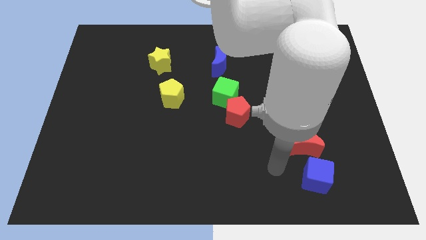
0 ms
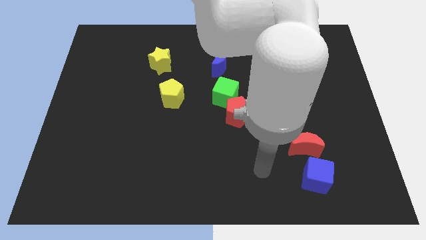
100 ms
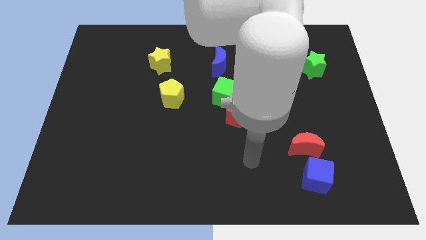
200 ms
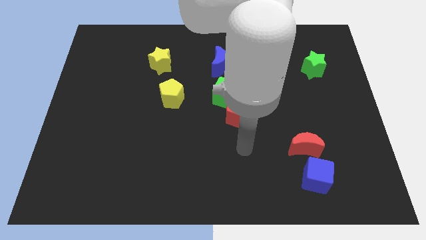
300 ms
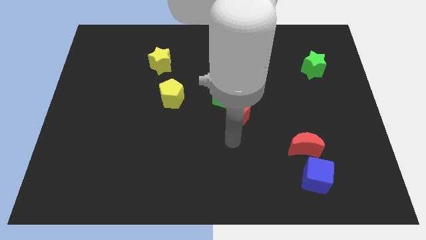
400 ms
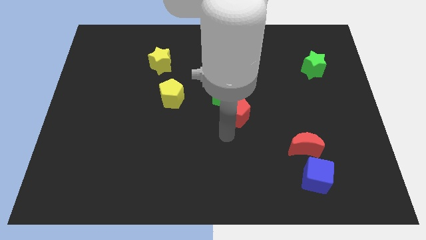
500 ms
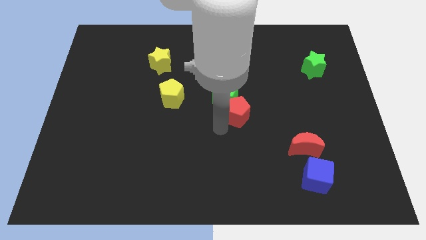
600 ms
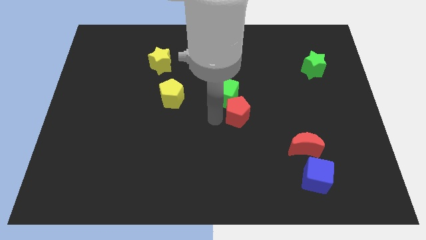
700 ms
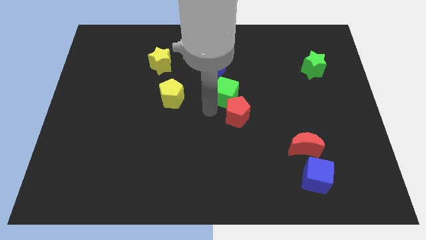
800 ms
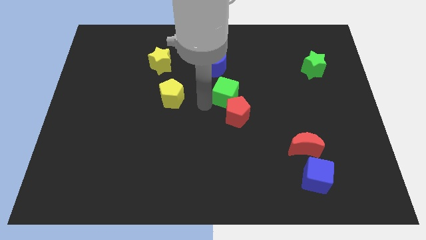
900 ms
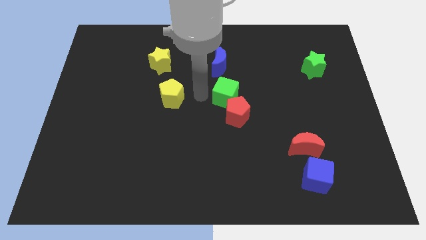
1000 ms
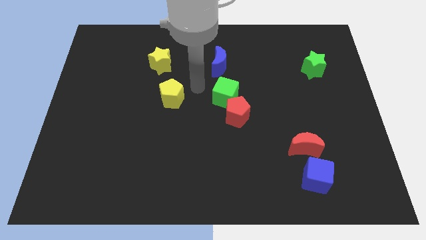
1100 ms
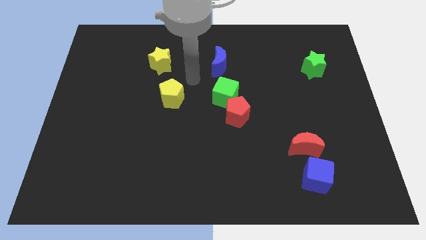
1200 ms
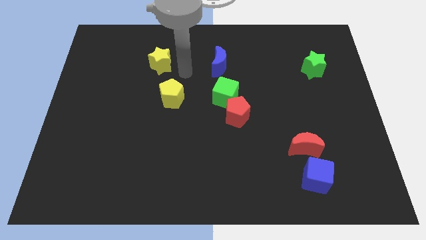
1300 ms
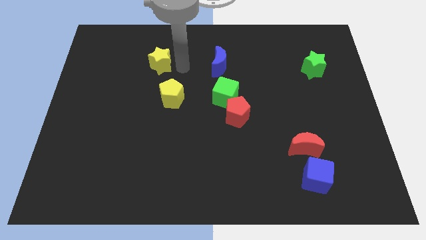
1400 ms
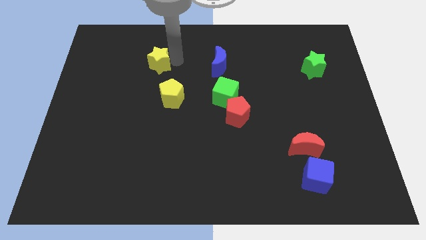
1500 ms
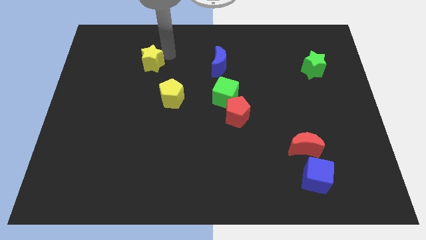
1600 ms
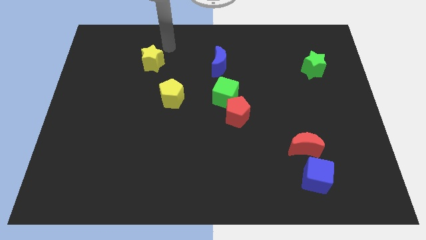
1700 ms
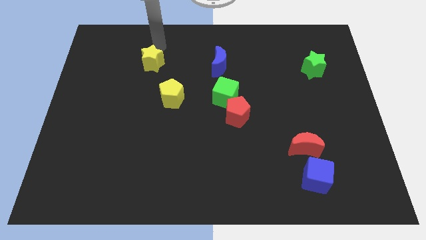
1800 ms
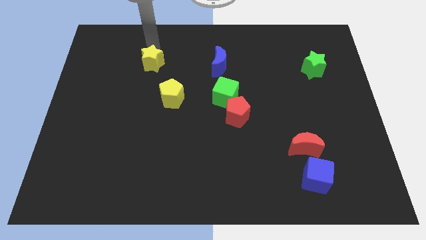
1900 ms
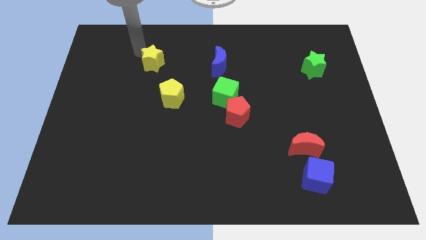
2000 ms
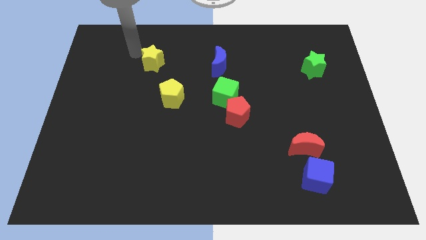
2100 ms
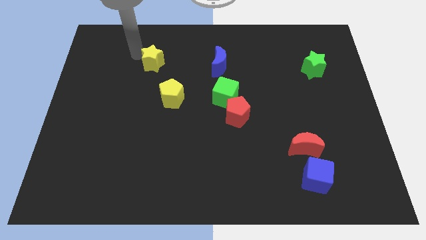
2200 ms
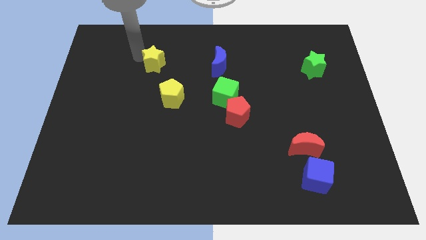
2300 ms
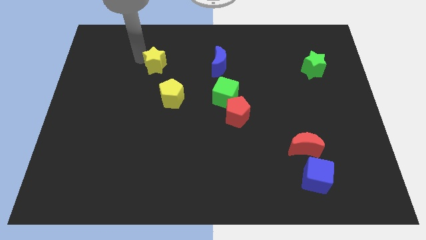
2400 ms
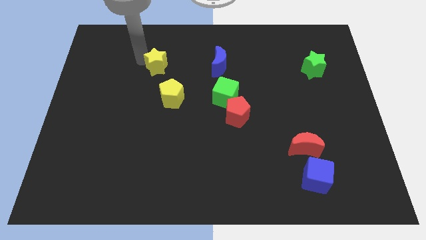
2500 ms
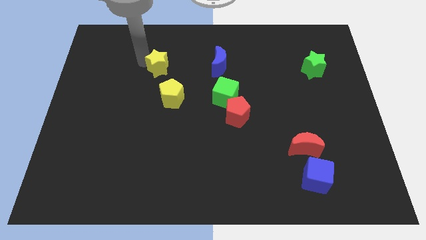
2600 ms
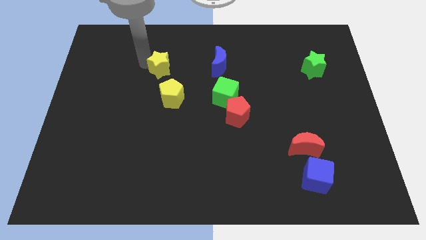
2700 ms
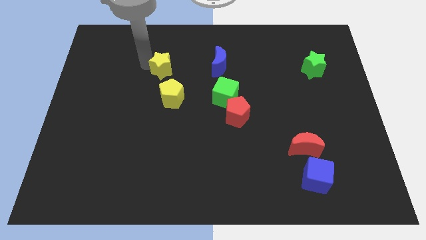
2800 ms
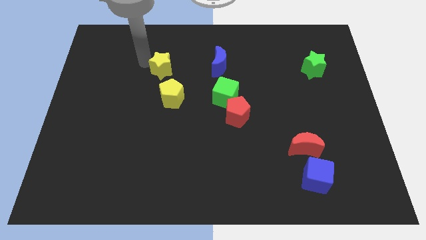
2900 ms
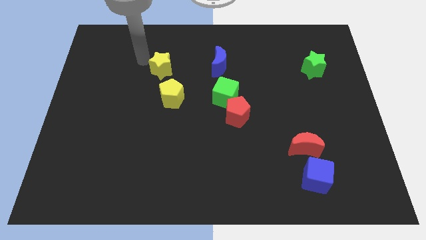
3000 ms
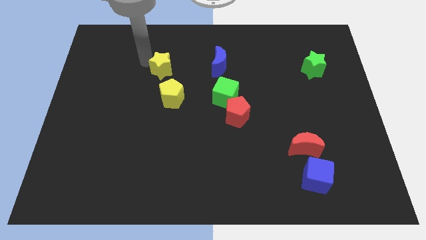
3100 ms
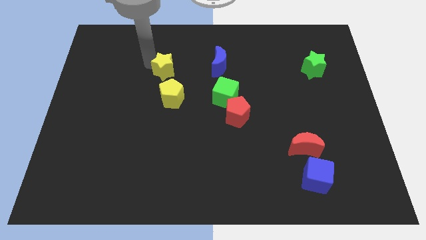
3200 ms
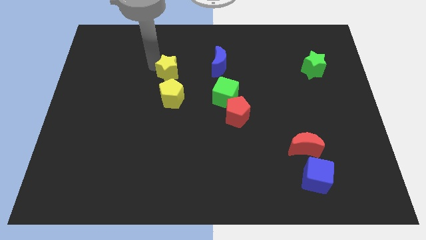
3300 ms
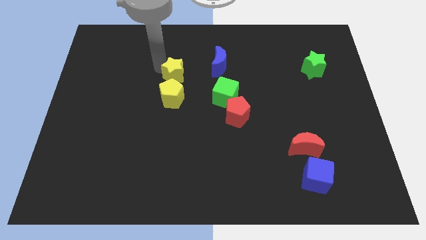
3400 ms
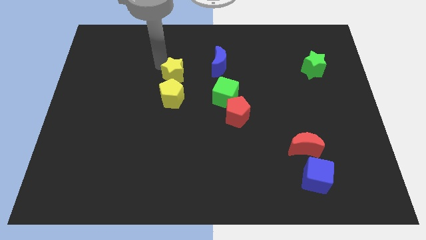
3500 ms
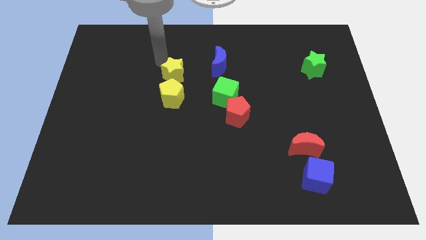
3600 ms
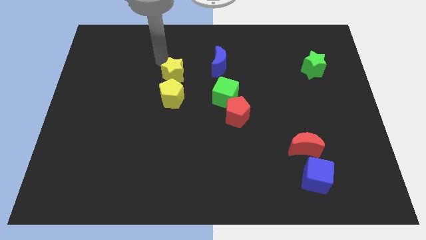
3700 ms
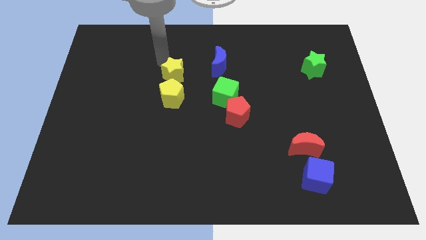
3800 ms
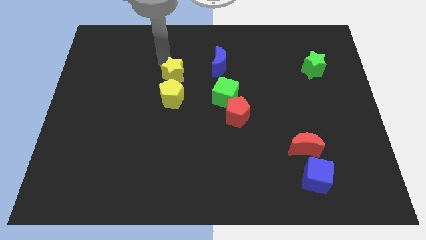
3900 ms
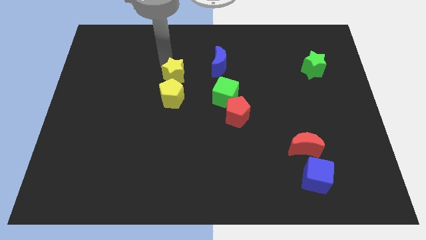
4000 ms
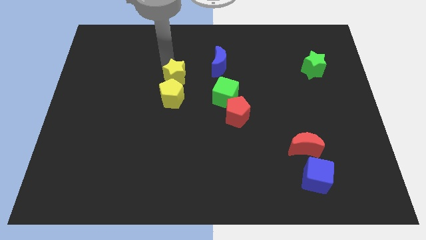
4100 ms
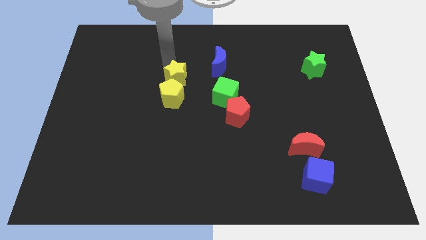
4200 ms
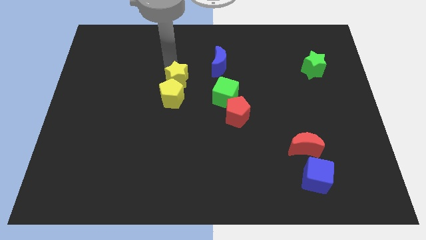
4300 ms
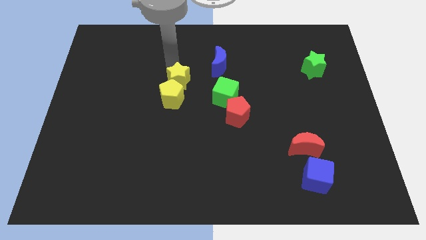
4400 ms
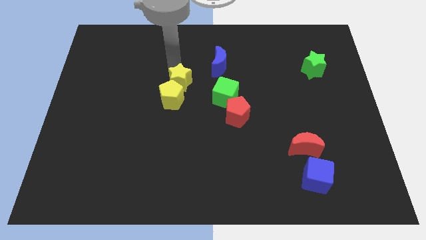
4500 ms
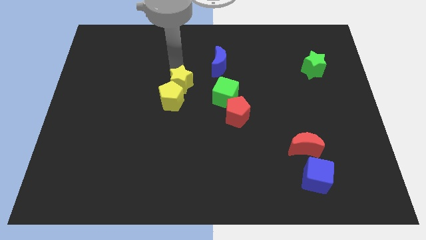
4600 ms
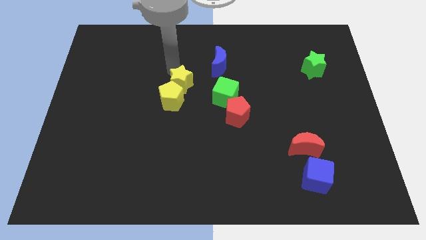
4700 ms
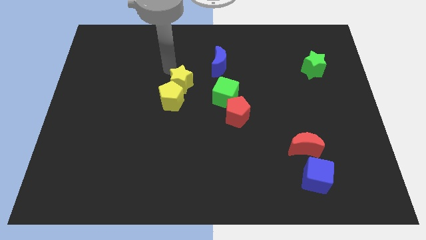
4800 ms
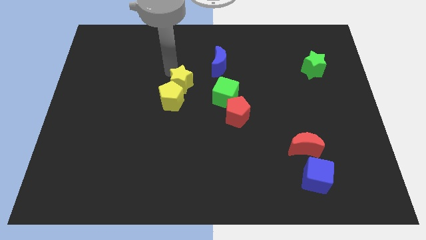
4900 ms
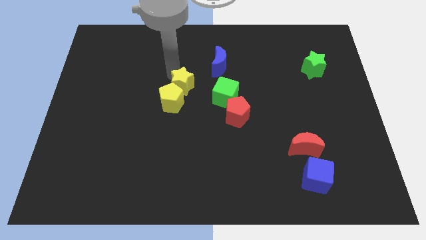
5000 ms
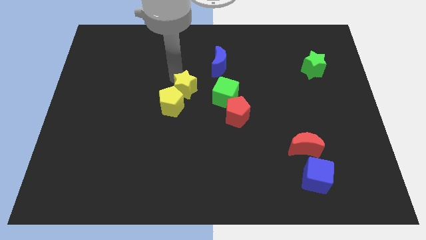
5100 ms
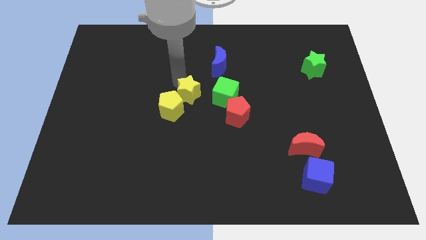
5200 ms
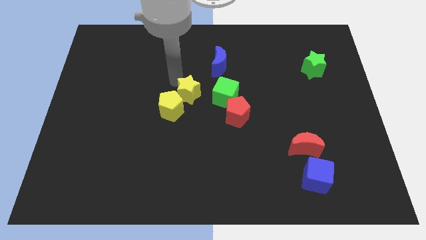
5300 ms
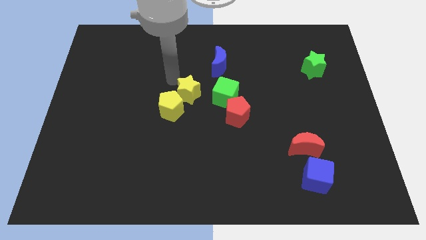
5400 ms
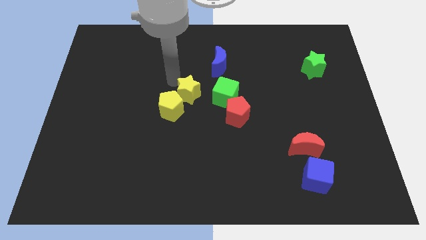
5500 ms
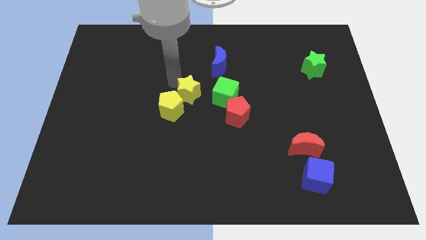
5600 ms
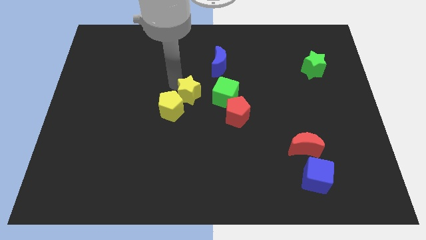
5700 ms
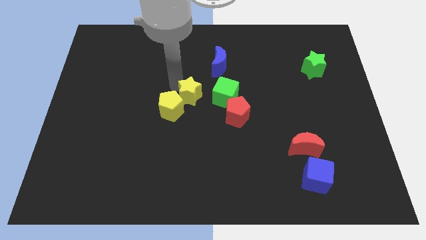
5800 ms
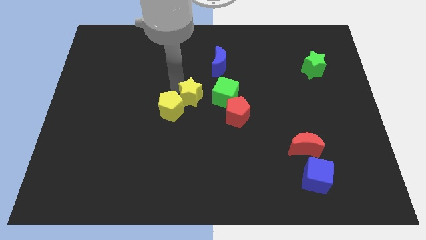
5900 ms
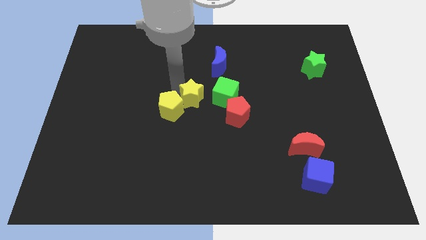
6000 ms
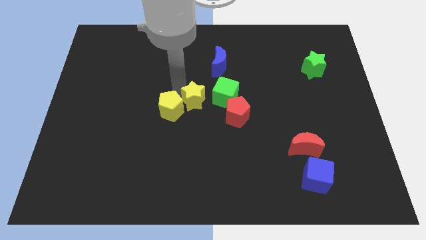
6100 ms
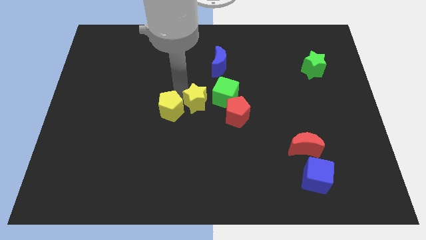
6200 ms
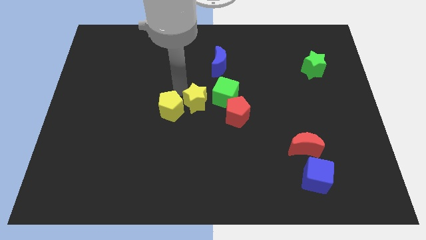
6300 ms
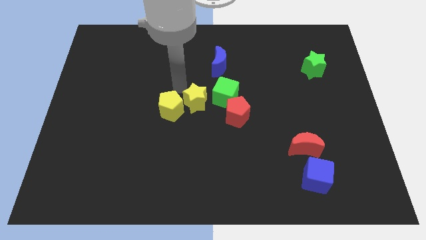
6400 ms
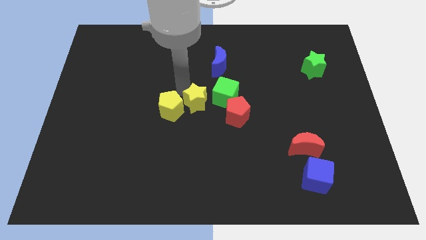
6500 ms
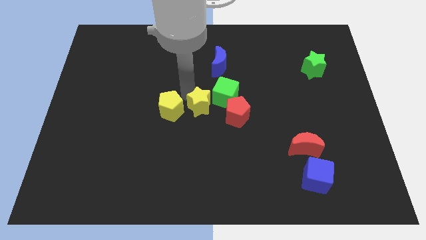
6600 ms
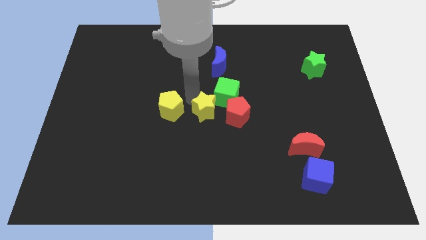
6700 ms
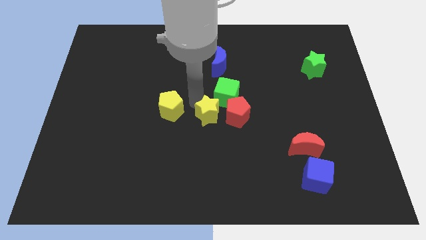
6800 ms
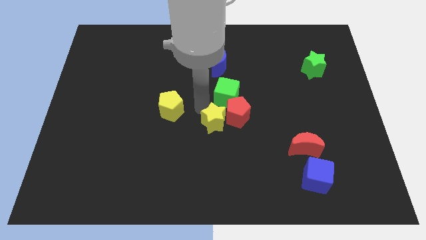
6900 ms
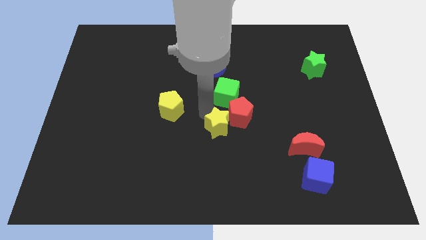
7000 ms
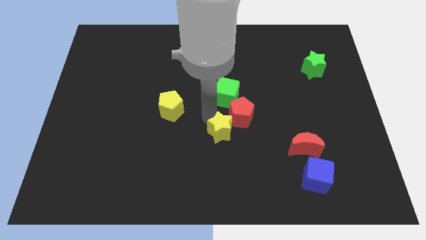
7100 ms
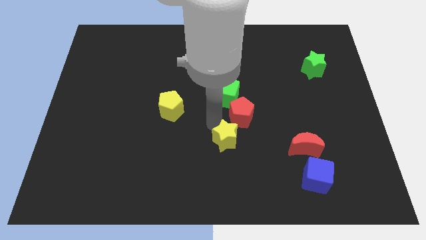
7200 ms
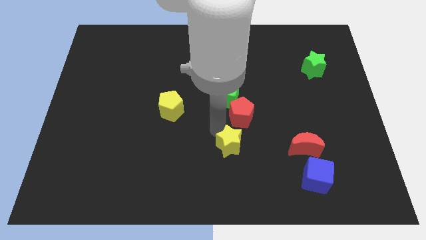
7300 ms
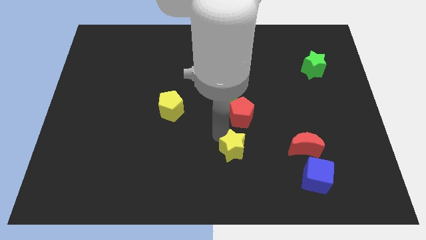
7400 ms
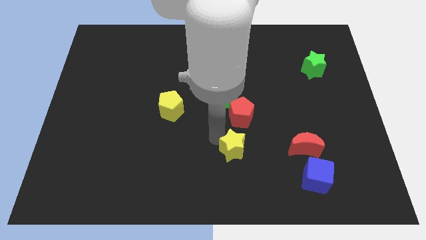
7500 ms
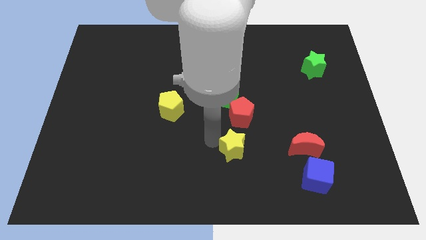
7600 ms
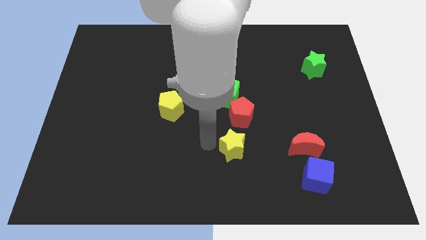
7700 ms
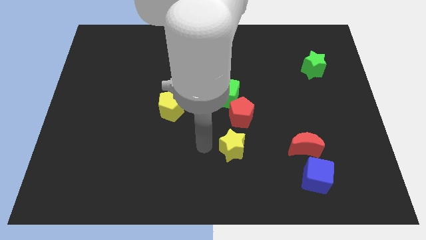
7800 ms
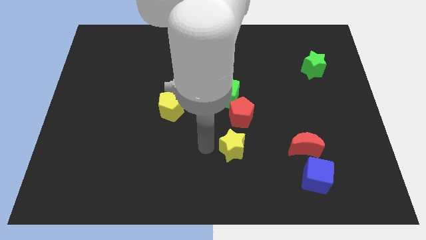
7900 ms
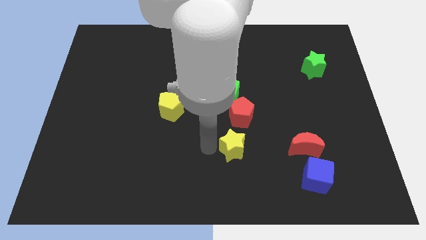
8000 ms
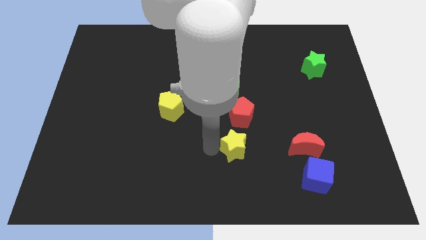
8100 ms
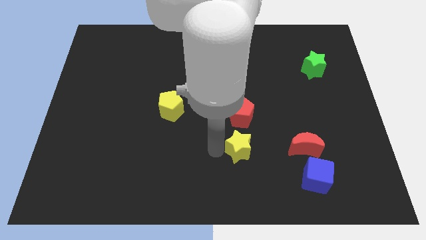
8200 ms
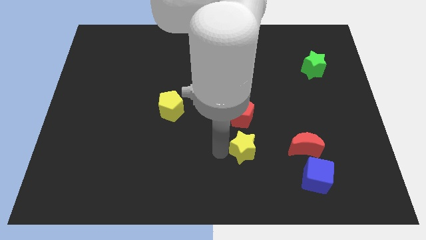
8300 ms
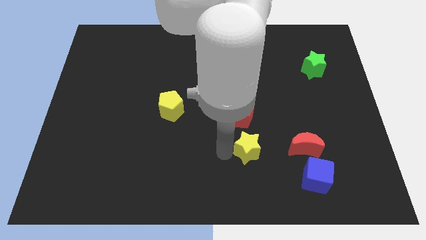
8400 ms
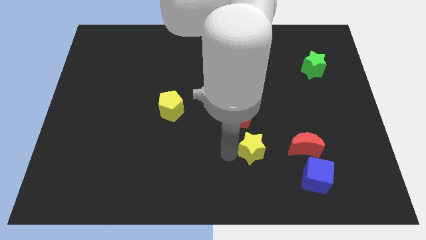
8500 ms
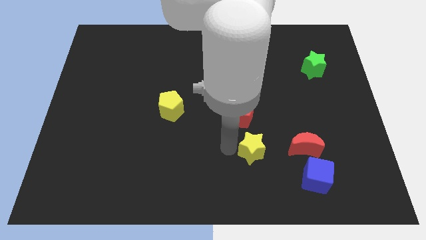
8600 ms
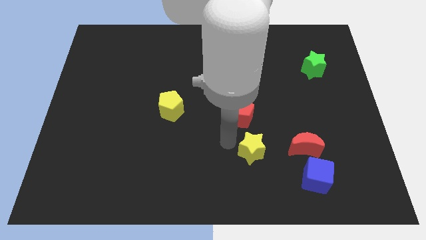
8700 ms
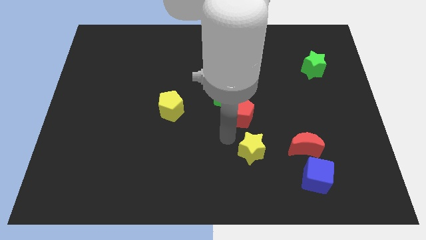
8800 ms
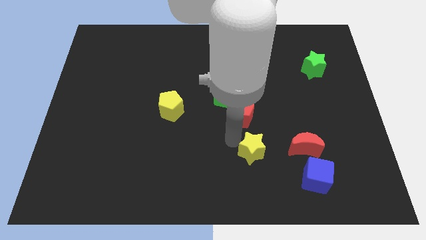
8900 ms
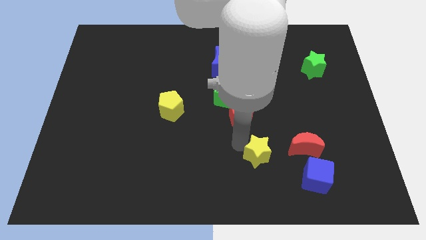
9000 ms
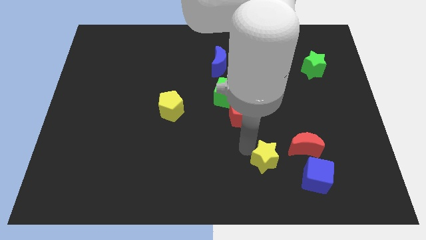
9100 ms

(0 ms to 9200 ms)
slide the yellow star diagonally down and to the left of the red moon
